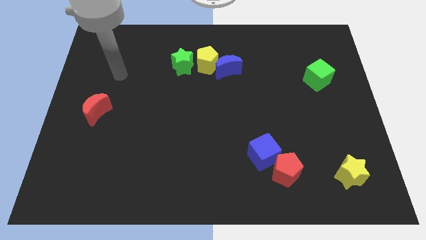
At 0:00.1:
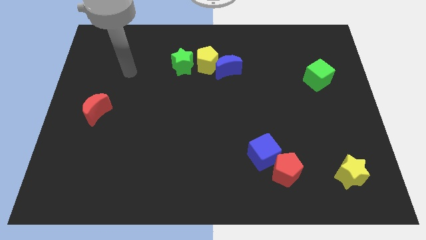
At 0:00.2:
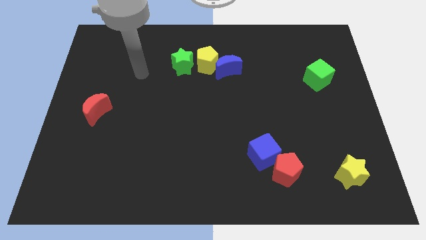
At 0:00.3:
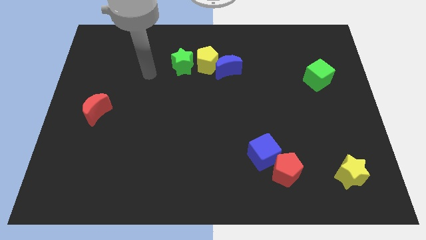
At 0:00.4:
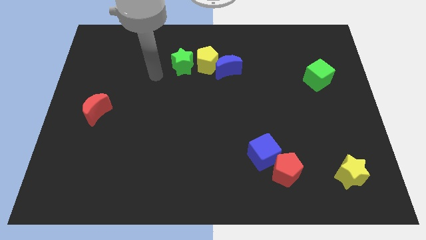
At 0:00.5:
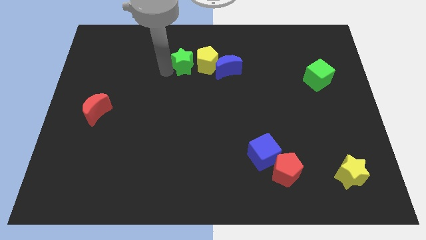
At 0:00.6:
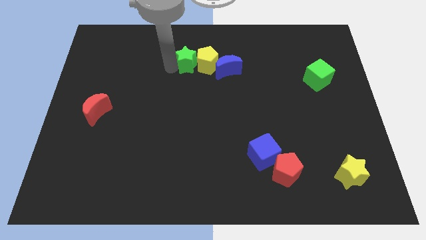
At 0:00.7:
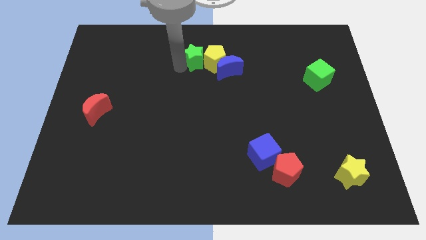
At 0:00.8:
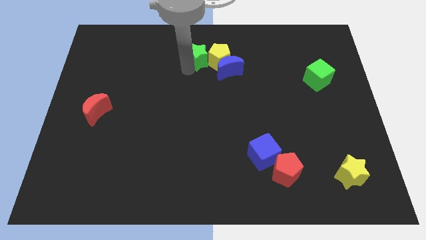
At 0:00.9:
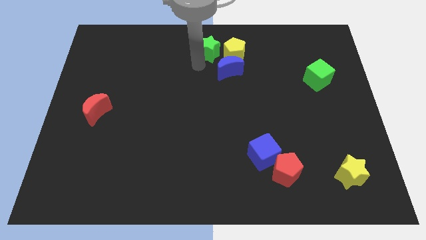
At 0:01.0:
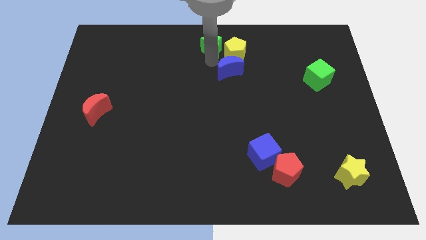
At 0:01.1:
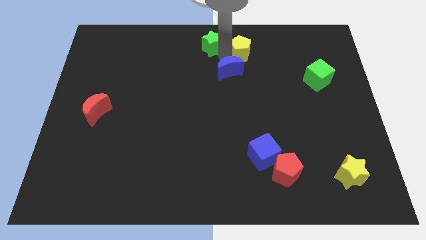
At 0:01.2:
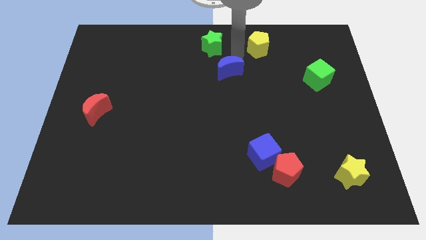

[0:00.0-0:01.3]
move the blue moon away from the yellow pentagon

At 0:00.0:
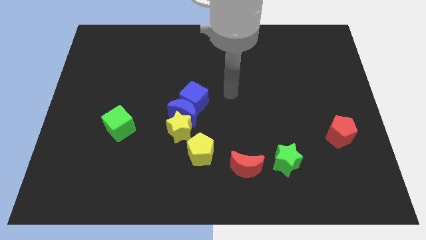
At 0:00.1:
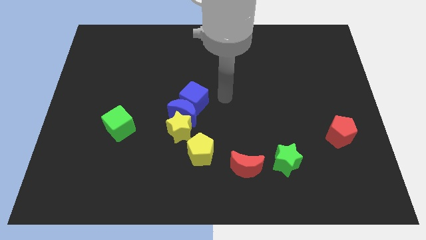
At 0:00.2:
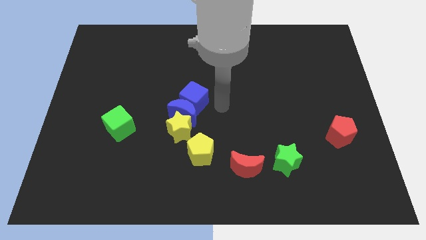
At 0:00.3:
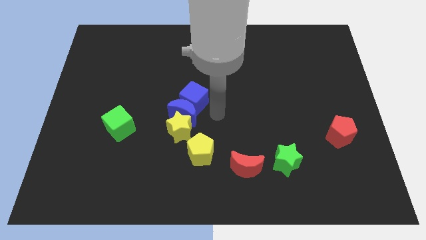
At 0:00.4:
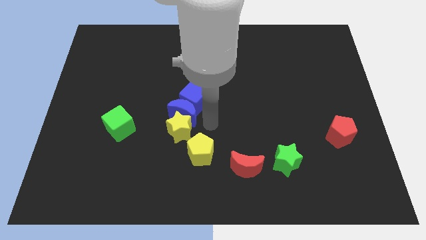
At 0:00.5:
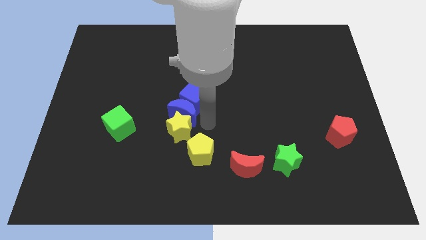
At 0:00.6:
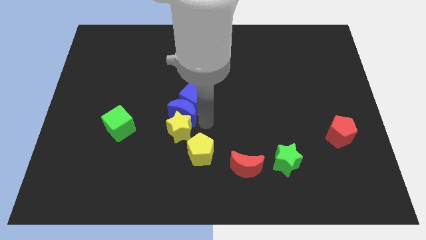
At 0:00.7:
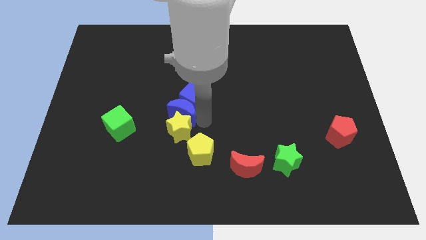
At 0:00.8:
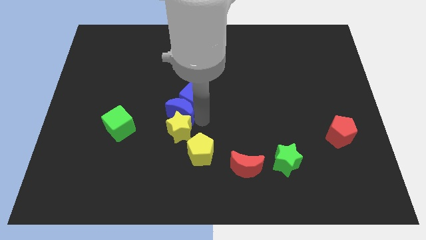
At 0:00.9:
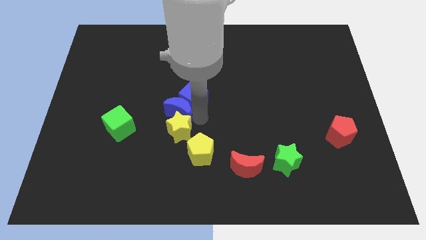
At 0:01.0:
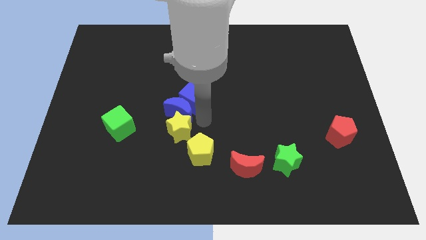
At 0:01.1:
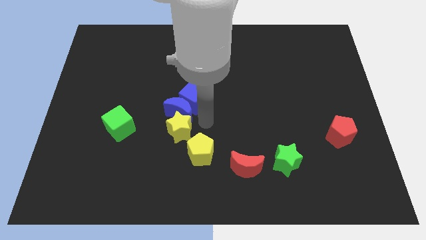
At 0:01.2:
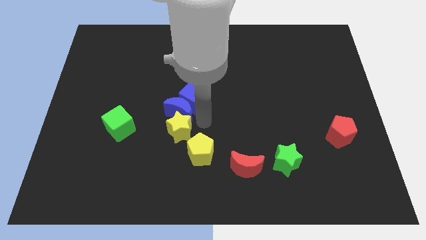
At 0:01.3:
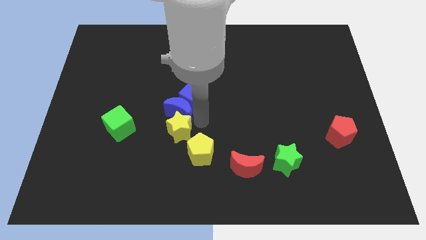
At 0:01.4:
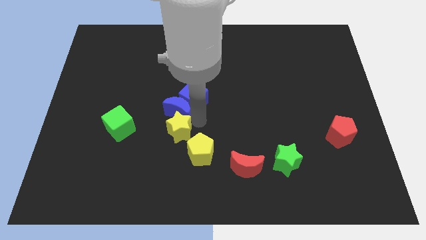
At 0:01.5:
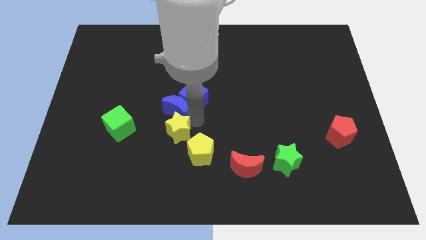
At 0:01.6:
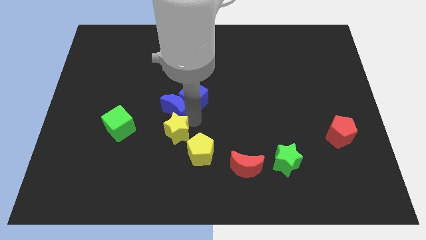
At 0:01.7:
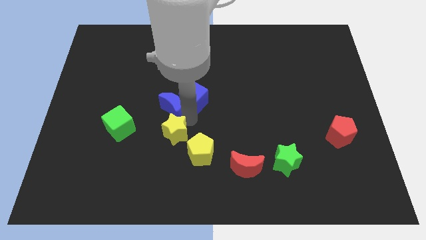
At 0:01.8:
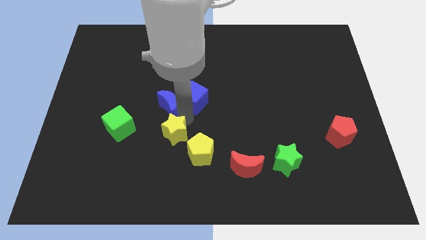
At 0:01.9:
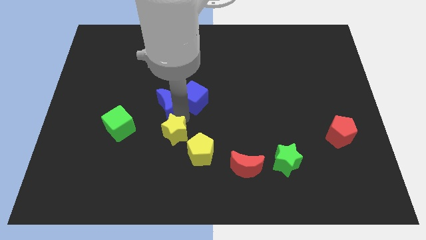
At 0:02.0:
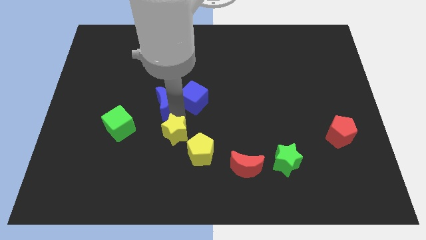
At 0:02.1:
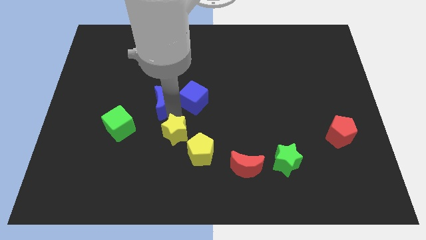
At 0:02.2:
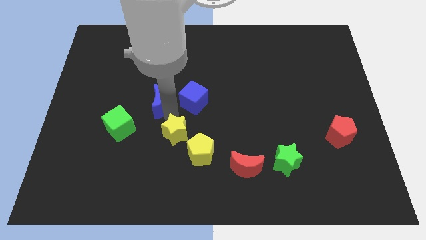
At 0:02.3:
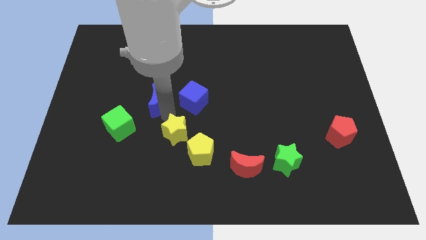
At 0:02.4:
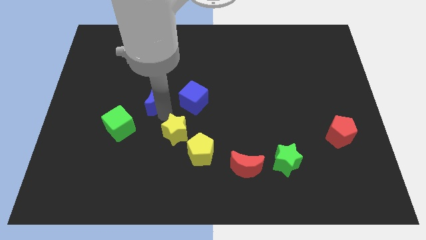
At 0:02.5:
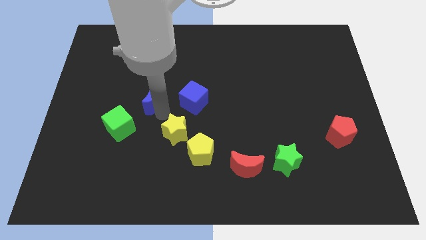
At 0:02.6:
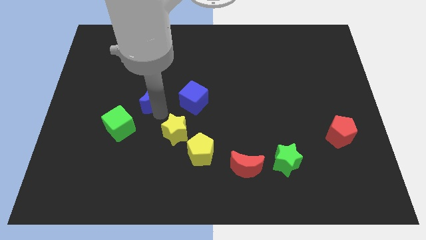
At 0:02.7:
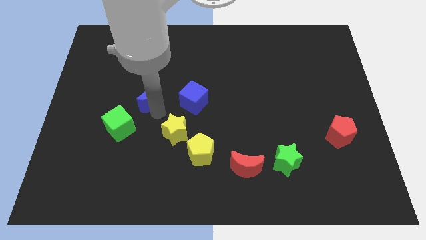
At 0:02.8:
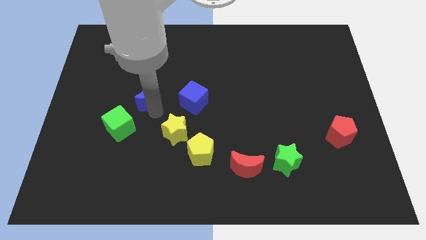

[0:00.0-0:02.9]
pull the blue moon apart from the yellow star and blue cube

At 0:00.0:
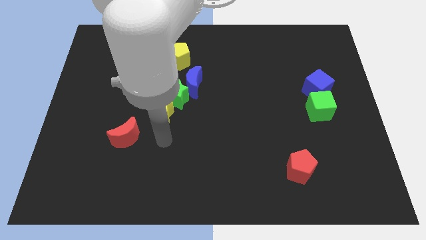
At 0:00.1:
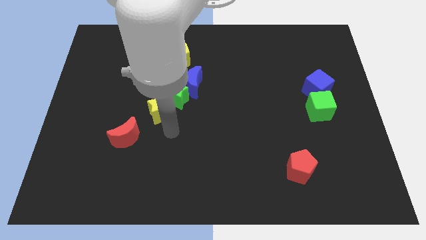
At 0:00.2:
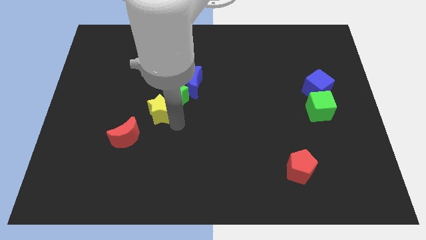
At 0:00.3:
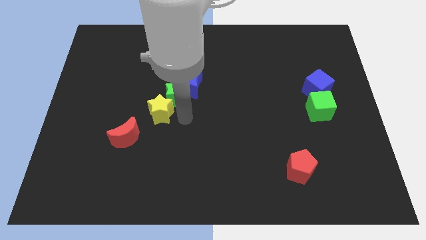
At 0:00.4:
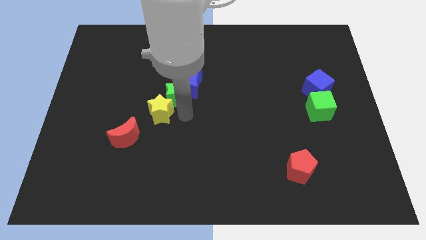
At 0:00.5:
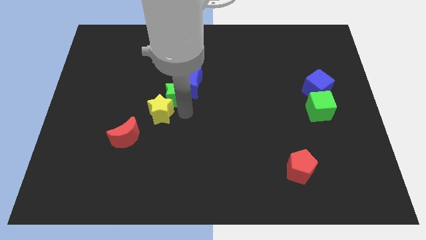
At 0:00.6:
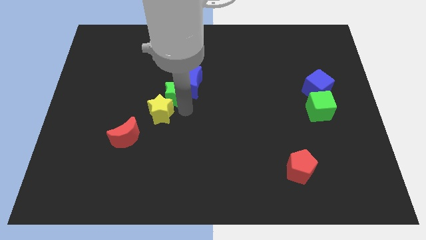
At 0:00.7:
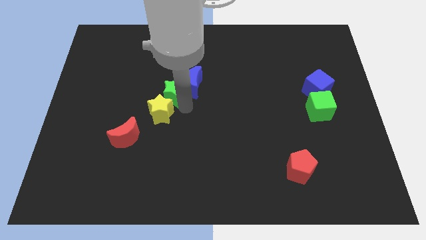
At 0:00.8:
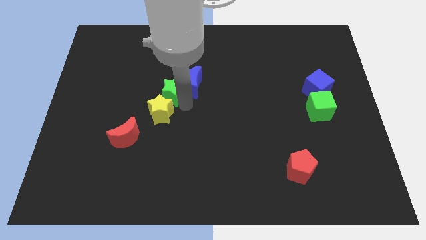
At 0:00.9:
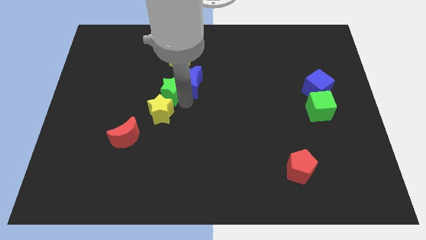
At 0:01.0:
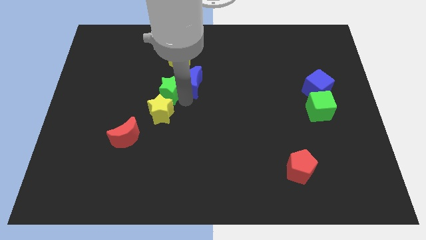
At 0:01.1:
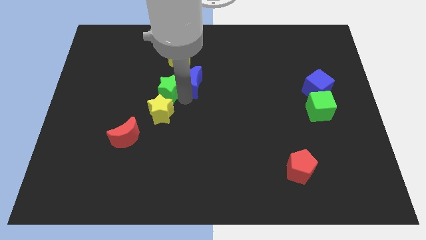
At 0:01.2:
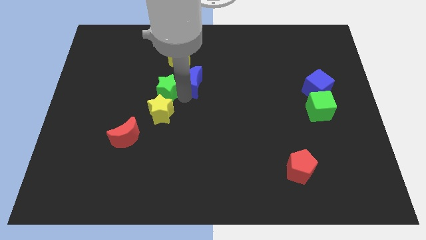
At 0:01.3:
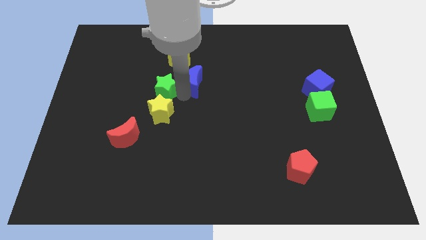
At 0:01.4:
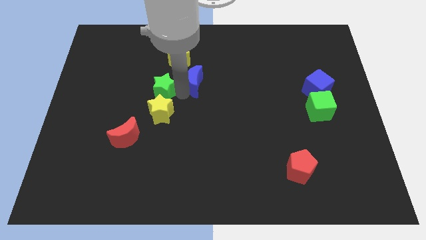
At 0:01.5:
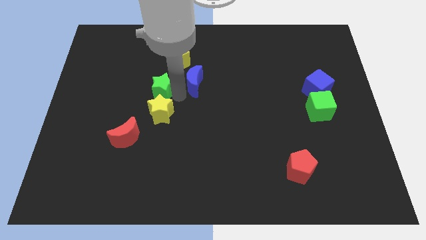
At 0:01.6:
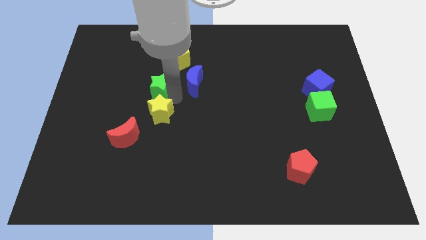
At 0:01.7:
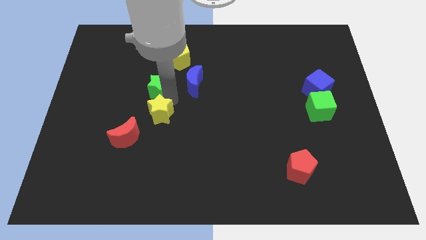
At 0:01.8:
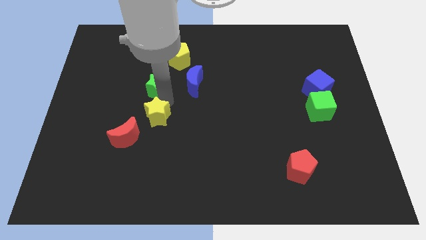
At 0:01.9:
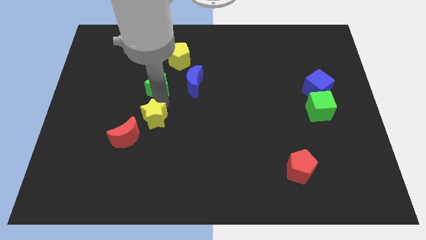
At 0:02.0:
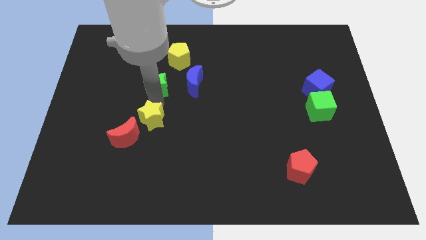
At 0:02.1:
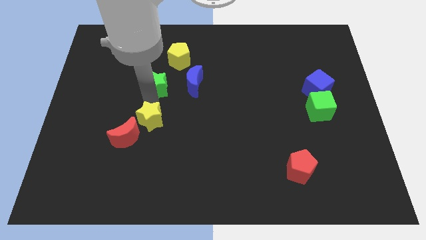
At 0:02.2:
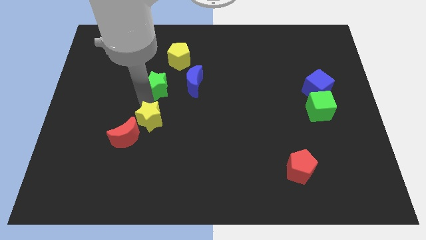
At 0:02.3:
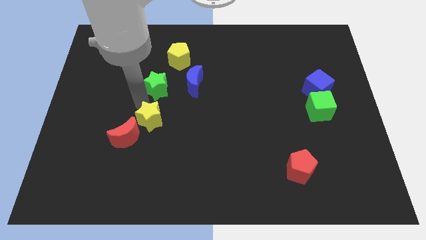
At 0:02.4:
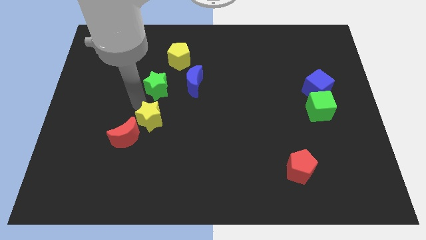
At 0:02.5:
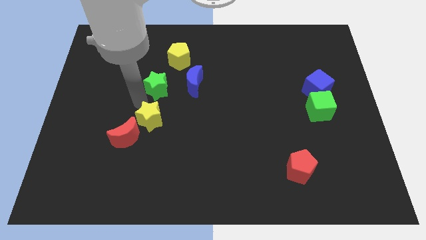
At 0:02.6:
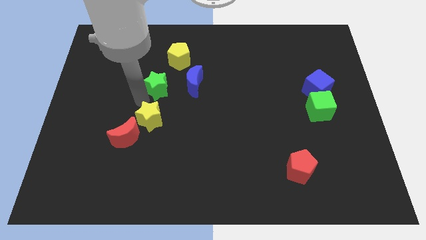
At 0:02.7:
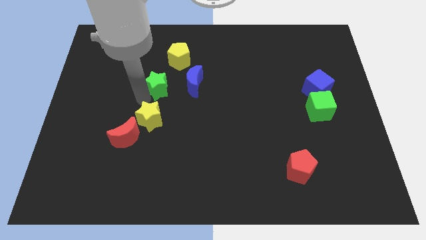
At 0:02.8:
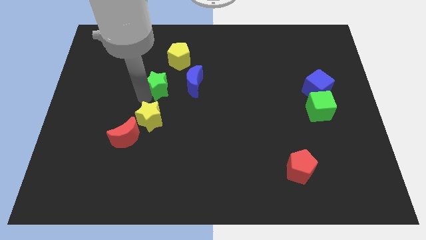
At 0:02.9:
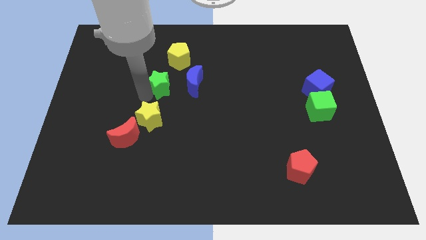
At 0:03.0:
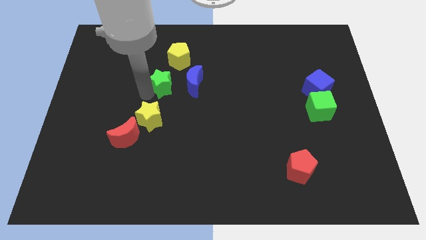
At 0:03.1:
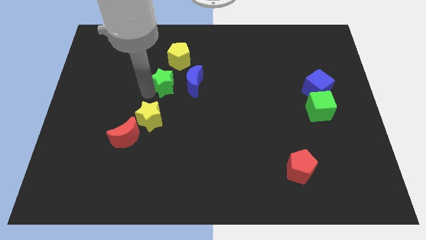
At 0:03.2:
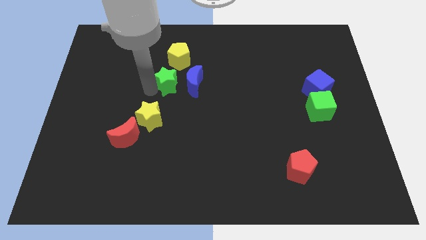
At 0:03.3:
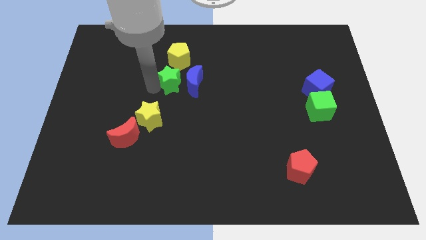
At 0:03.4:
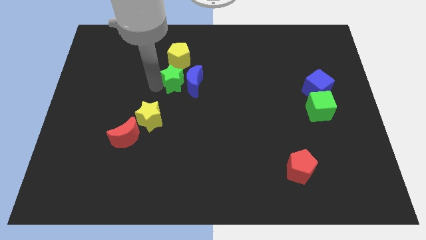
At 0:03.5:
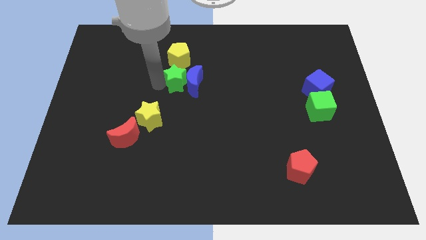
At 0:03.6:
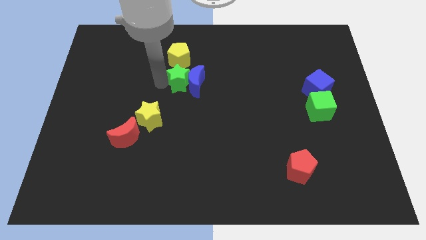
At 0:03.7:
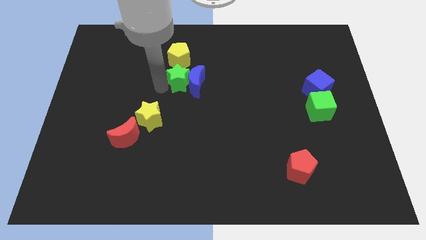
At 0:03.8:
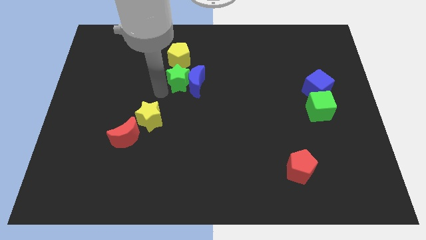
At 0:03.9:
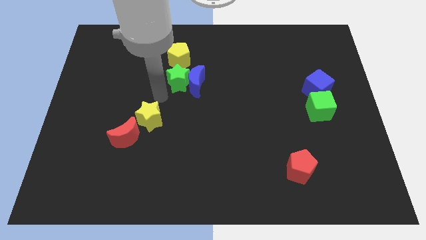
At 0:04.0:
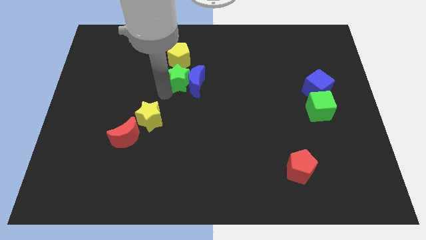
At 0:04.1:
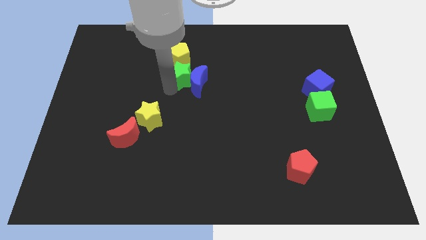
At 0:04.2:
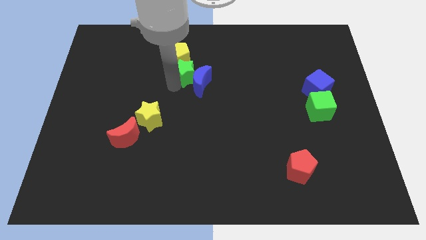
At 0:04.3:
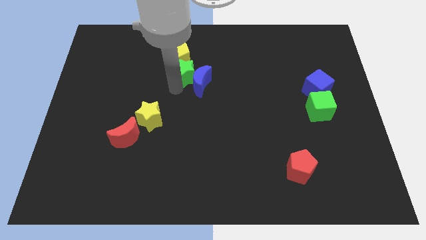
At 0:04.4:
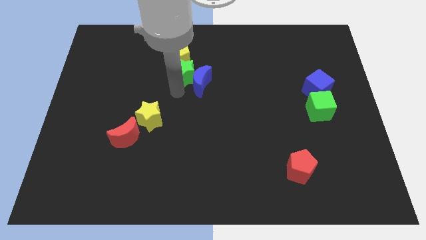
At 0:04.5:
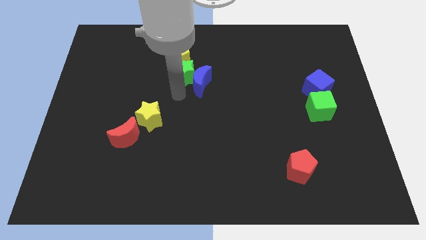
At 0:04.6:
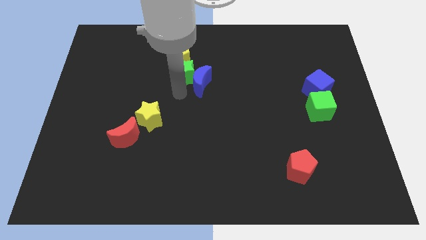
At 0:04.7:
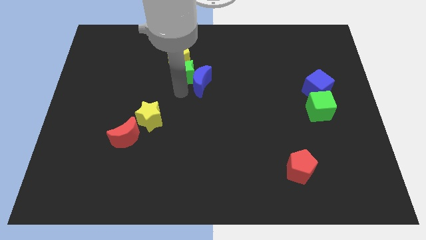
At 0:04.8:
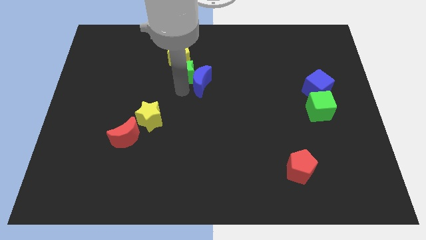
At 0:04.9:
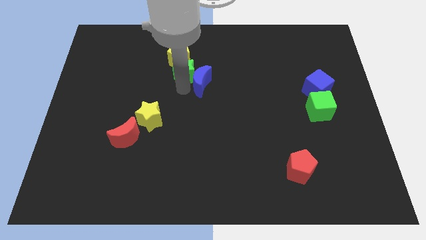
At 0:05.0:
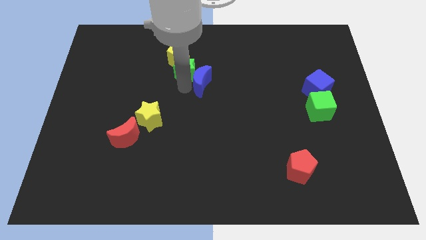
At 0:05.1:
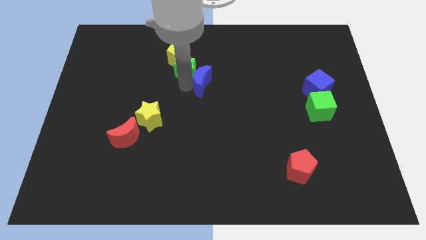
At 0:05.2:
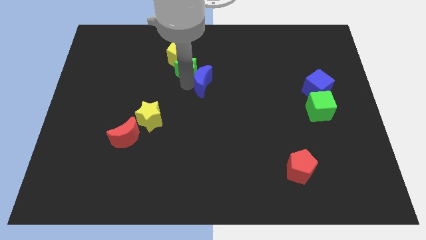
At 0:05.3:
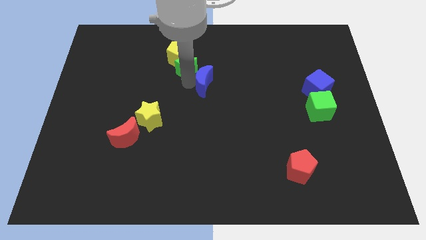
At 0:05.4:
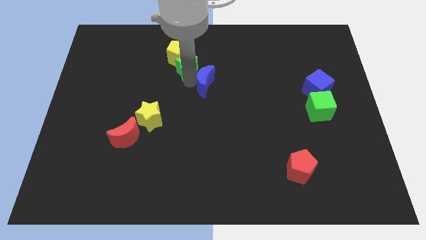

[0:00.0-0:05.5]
pull the green star apart from the blue moon and yellow star
